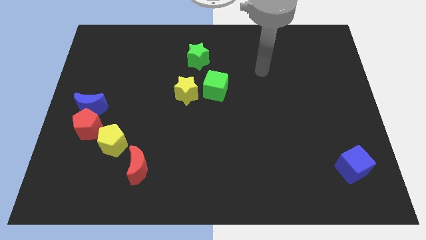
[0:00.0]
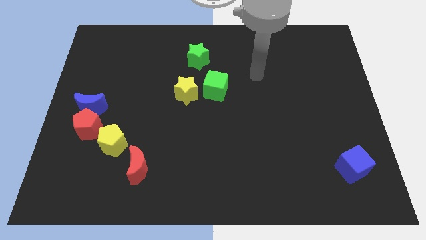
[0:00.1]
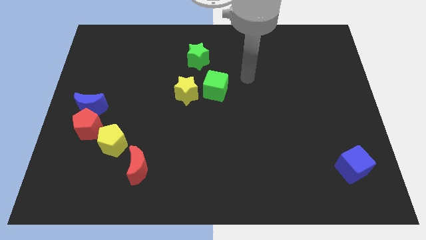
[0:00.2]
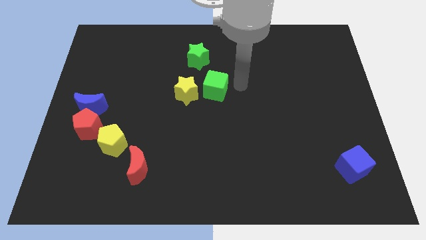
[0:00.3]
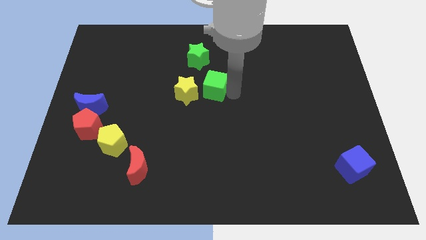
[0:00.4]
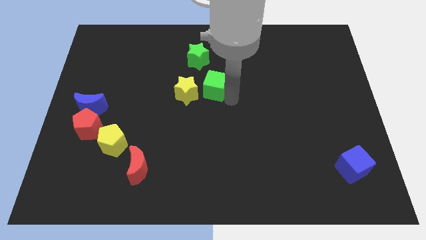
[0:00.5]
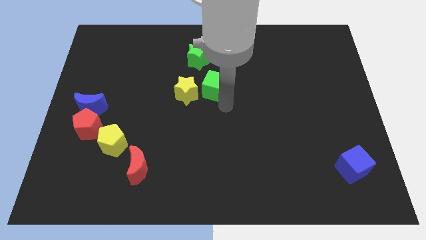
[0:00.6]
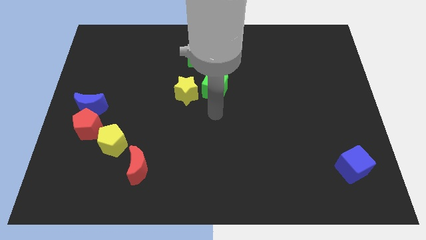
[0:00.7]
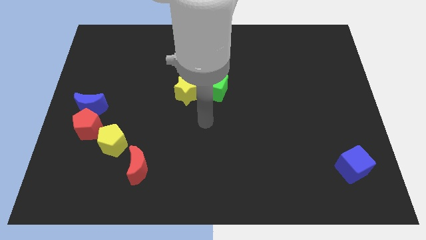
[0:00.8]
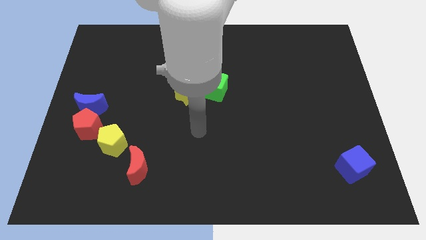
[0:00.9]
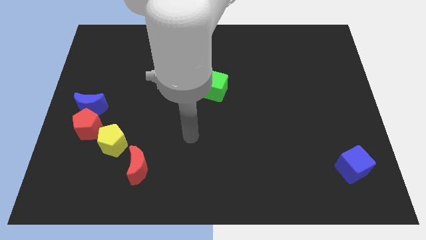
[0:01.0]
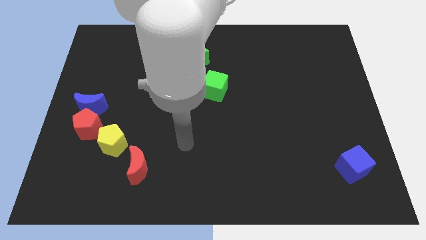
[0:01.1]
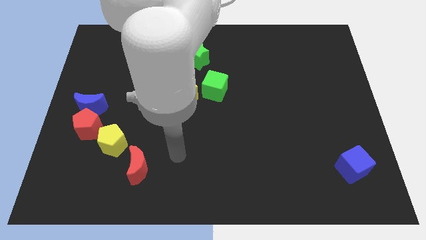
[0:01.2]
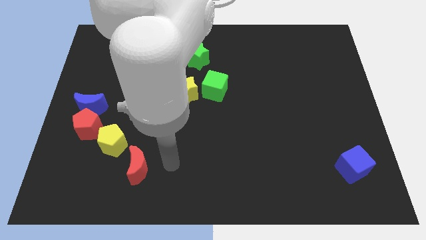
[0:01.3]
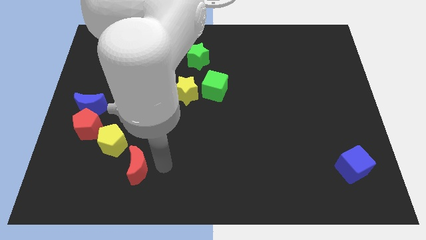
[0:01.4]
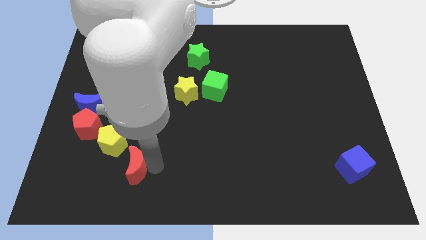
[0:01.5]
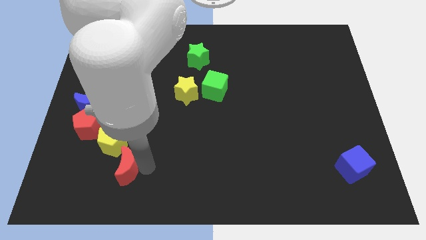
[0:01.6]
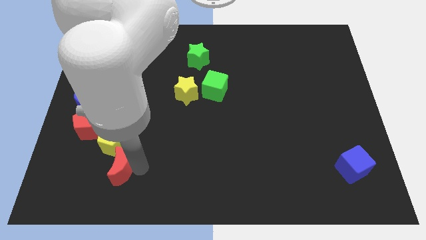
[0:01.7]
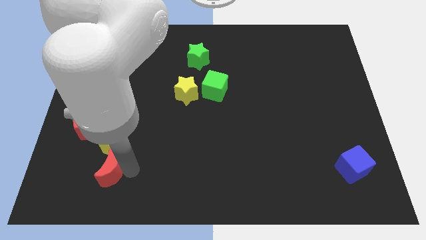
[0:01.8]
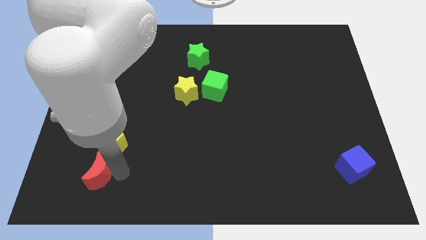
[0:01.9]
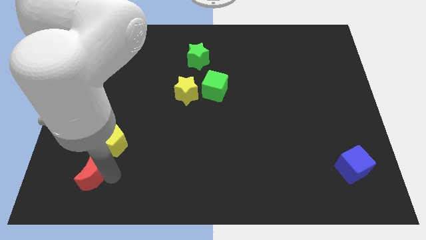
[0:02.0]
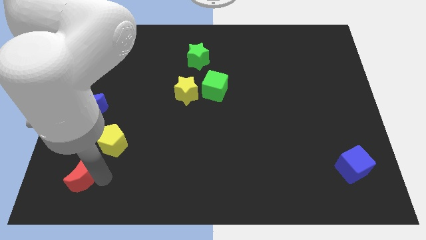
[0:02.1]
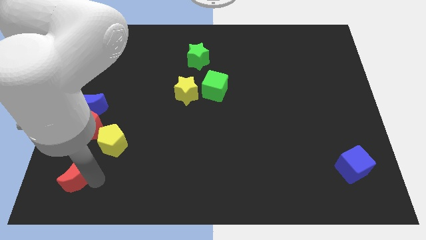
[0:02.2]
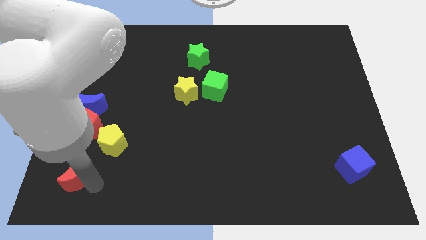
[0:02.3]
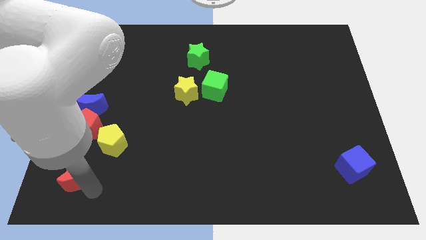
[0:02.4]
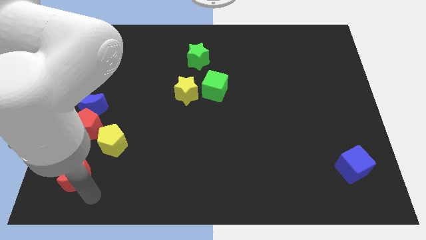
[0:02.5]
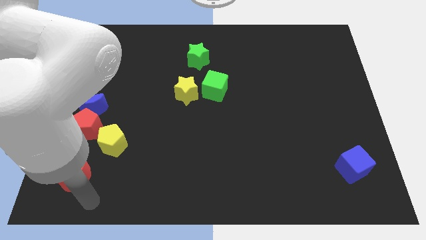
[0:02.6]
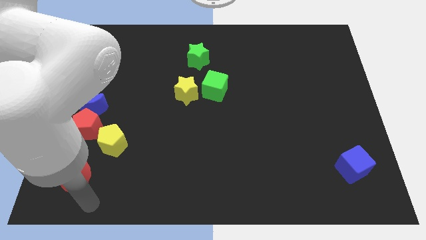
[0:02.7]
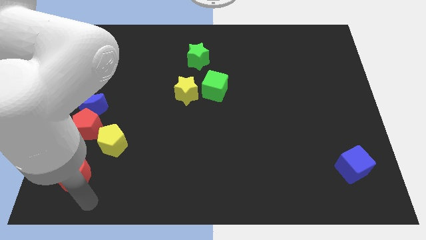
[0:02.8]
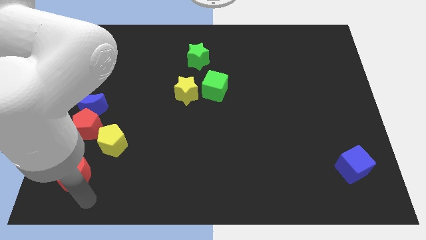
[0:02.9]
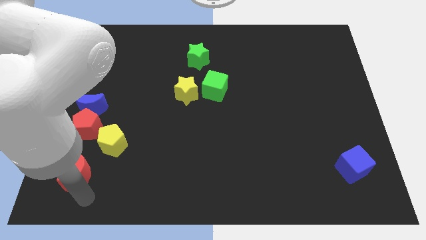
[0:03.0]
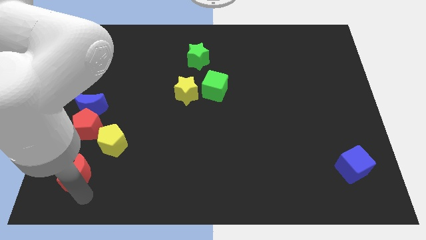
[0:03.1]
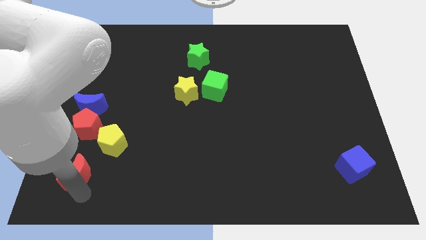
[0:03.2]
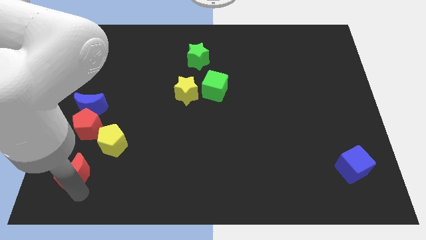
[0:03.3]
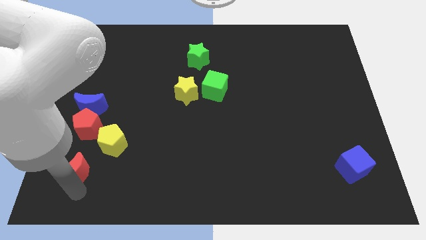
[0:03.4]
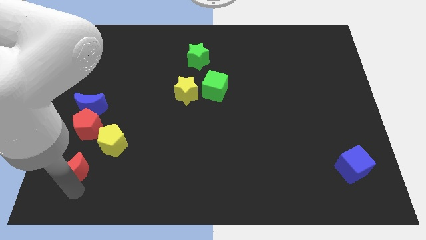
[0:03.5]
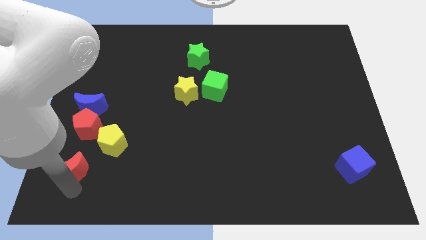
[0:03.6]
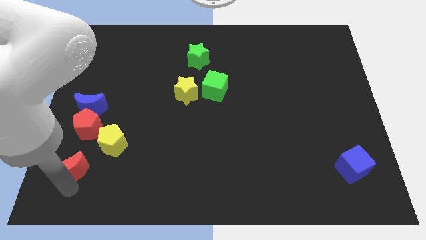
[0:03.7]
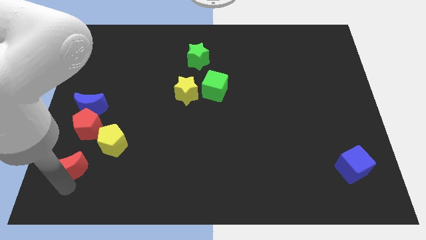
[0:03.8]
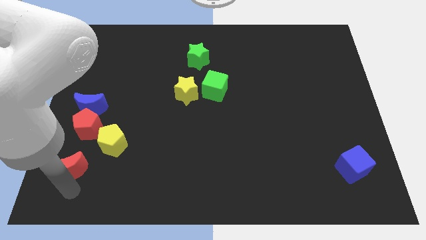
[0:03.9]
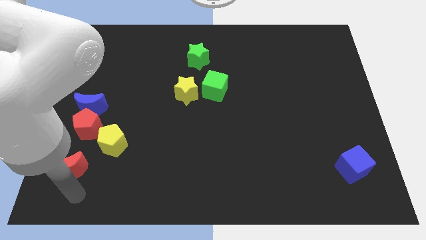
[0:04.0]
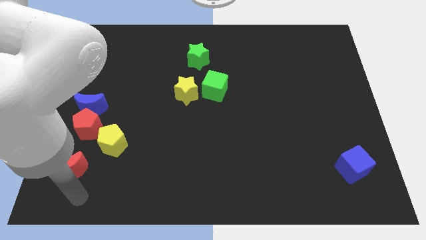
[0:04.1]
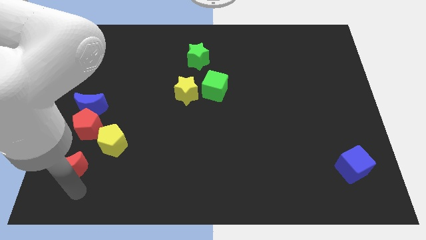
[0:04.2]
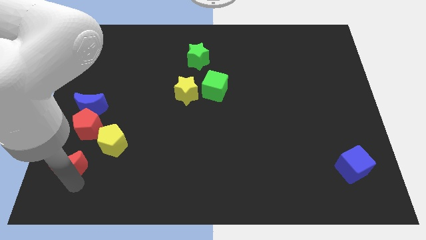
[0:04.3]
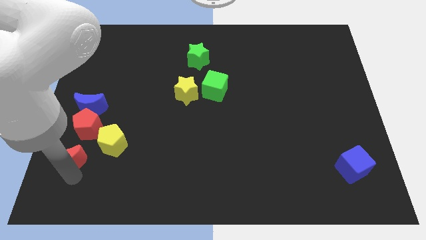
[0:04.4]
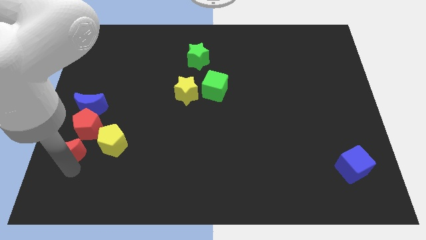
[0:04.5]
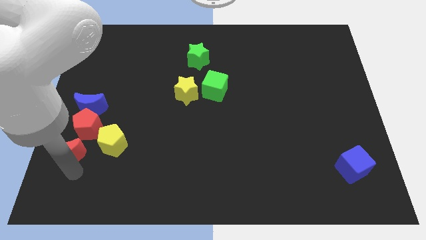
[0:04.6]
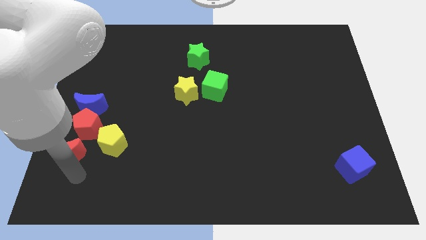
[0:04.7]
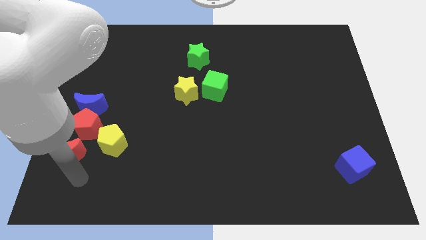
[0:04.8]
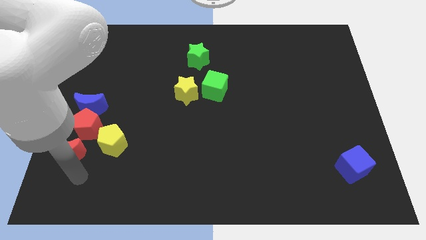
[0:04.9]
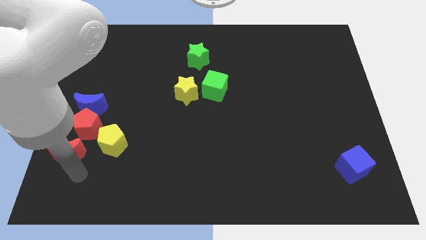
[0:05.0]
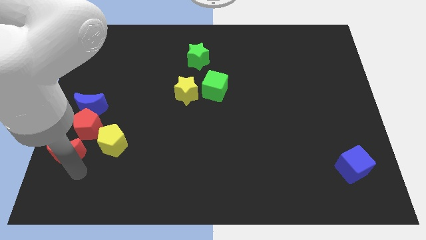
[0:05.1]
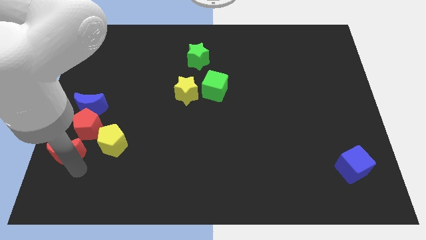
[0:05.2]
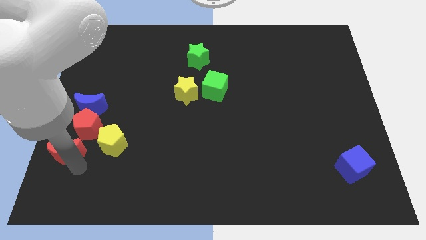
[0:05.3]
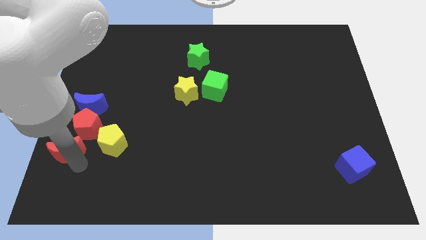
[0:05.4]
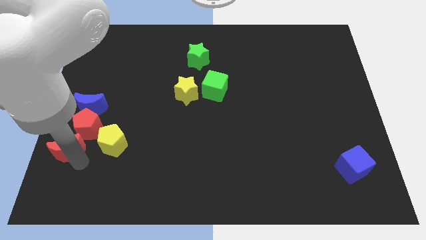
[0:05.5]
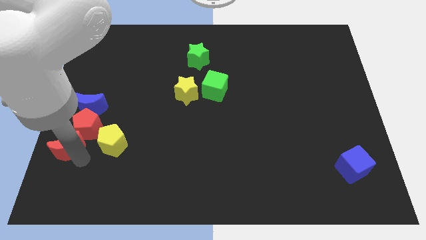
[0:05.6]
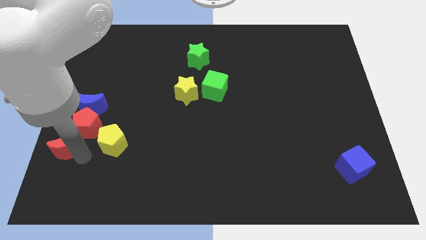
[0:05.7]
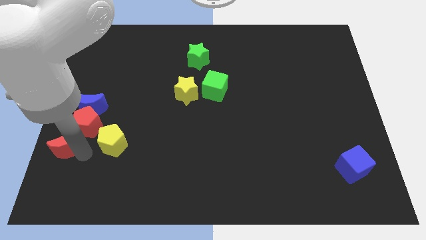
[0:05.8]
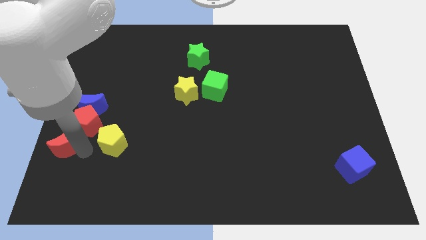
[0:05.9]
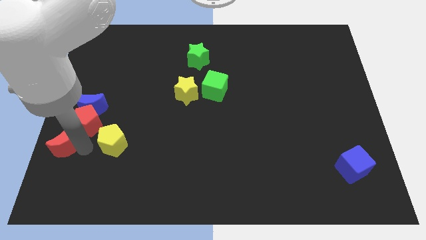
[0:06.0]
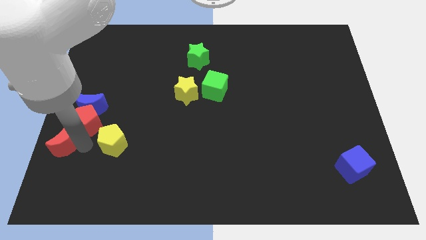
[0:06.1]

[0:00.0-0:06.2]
push the red moon to the left side
